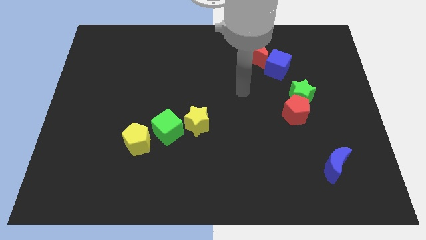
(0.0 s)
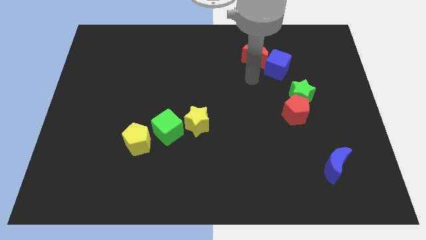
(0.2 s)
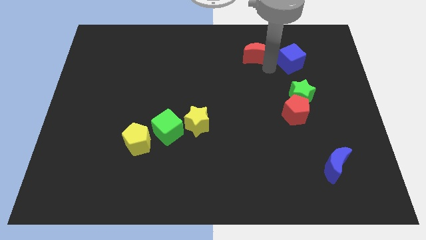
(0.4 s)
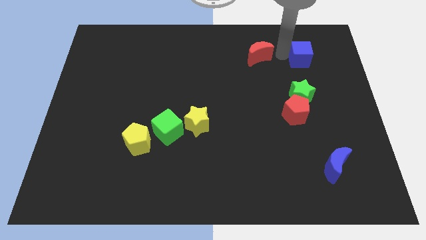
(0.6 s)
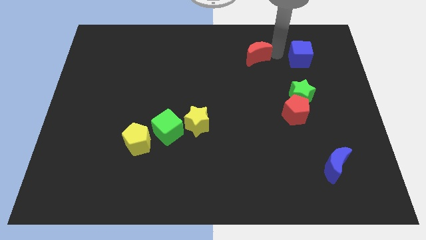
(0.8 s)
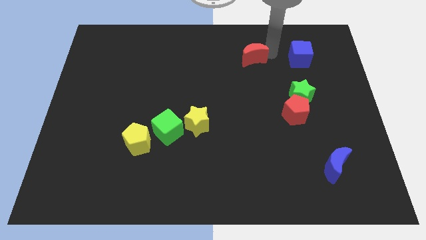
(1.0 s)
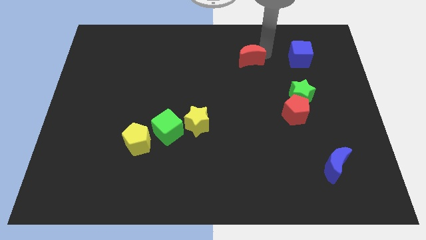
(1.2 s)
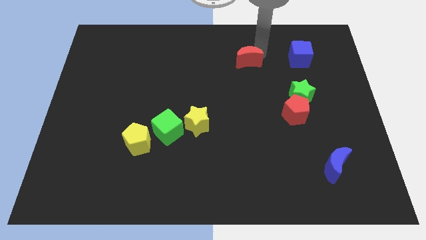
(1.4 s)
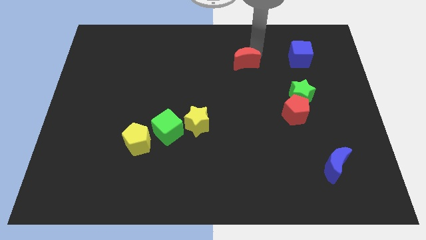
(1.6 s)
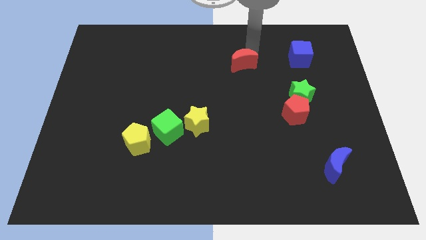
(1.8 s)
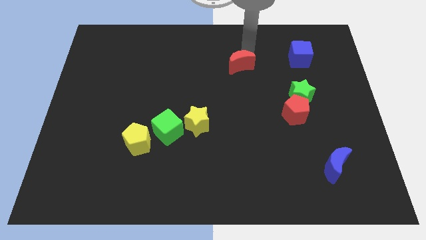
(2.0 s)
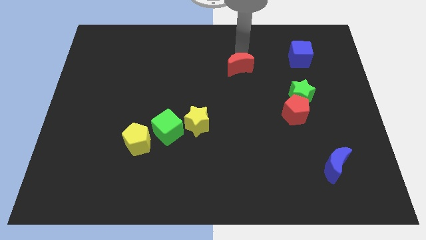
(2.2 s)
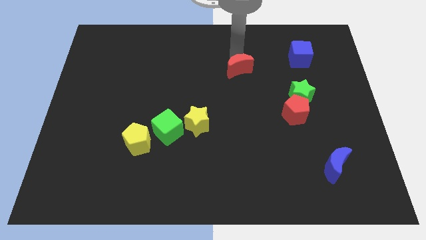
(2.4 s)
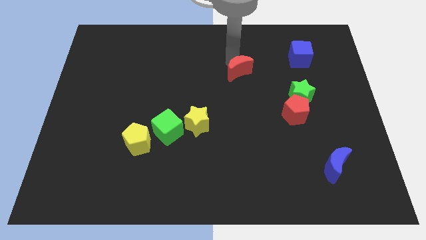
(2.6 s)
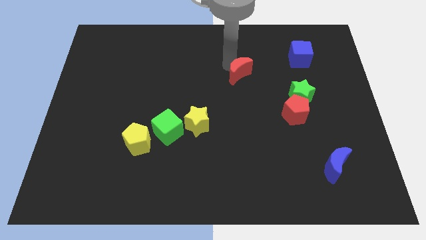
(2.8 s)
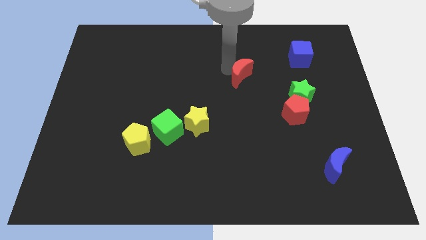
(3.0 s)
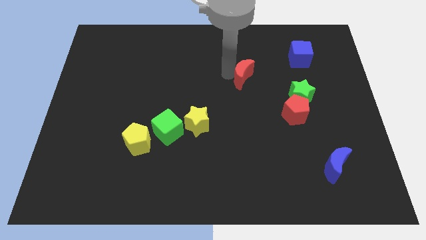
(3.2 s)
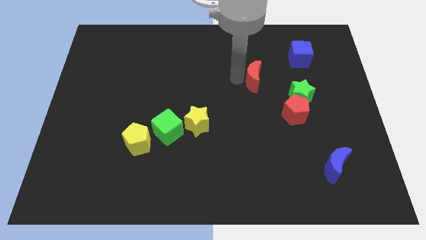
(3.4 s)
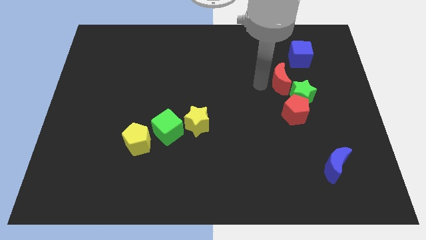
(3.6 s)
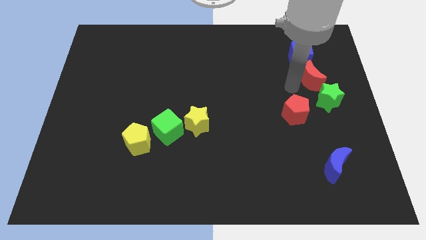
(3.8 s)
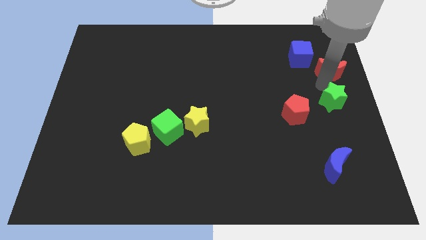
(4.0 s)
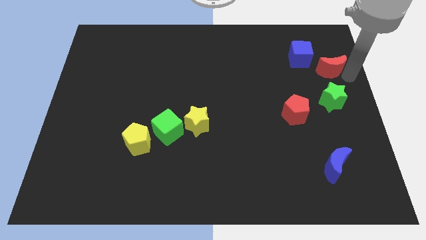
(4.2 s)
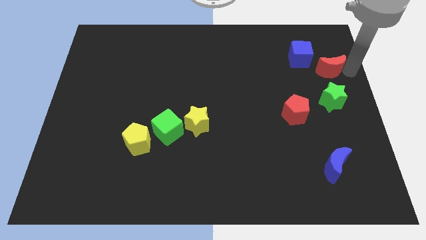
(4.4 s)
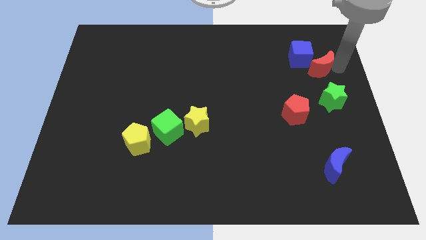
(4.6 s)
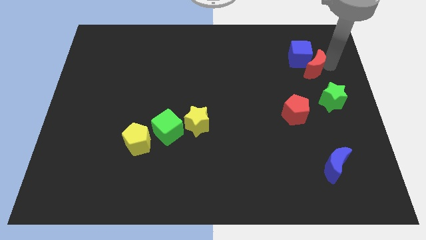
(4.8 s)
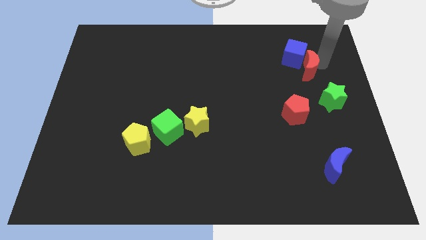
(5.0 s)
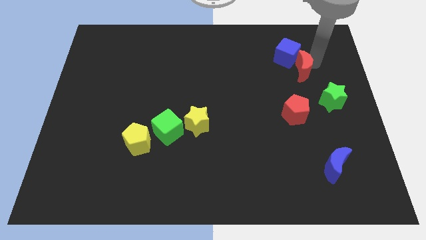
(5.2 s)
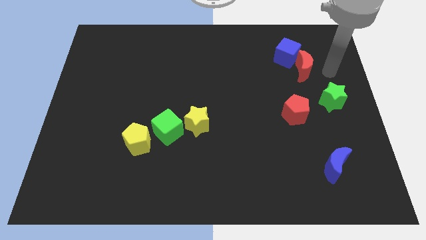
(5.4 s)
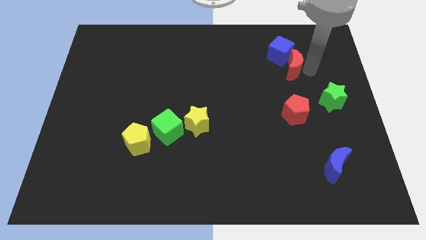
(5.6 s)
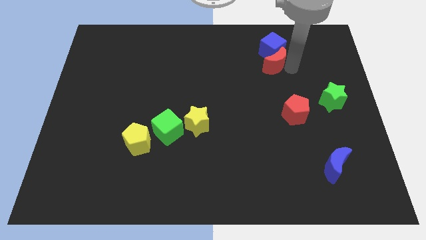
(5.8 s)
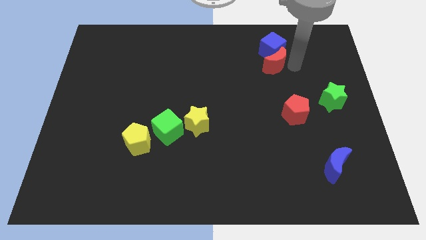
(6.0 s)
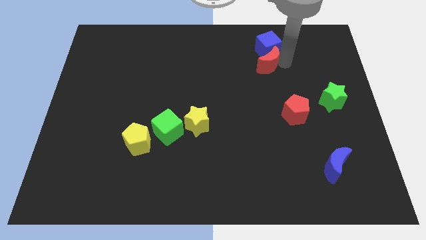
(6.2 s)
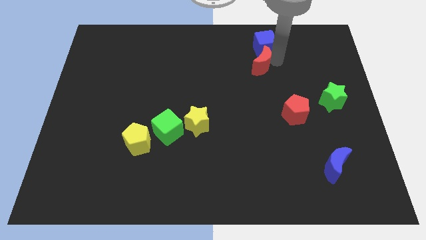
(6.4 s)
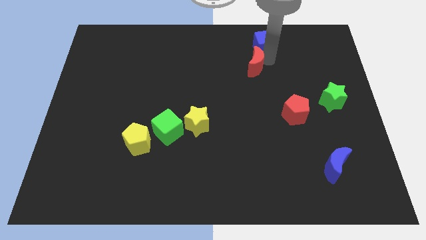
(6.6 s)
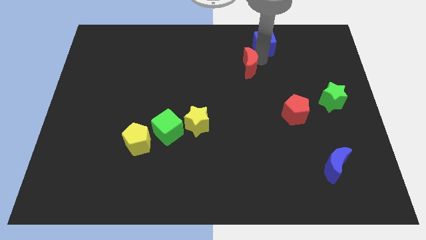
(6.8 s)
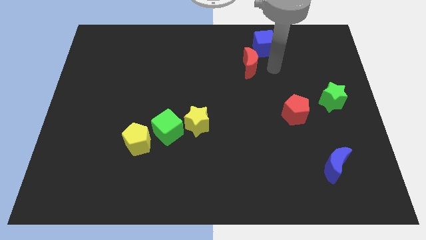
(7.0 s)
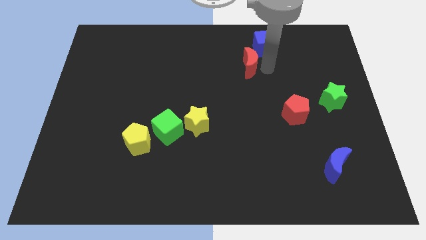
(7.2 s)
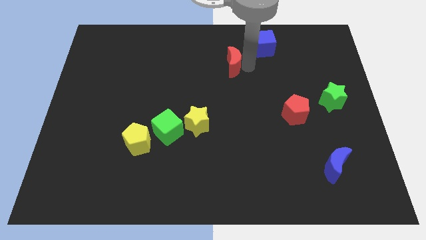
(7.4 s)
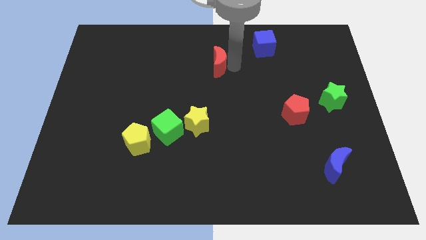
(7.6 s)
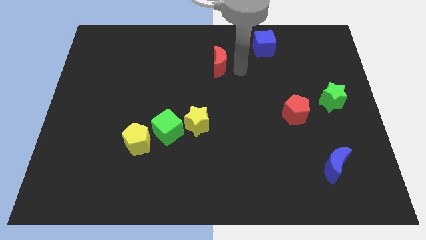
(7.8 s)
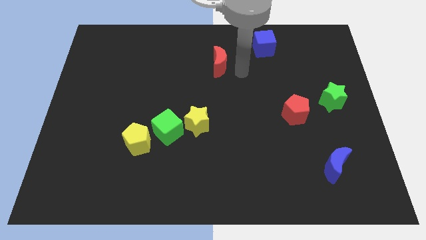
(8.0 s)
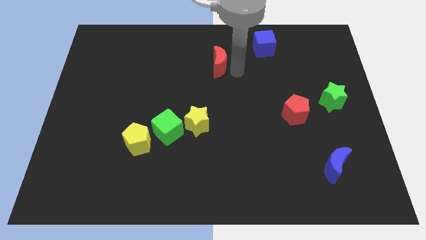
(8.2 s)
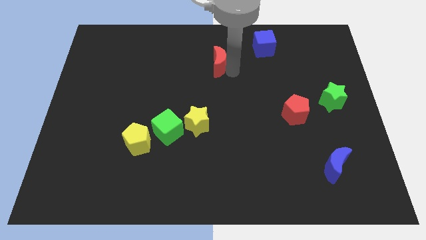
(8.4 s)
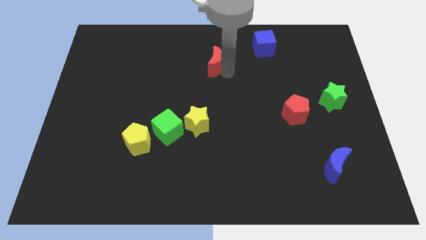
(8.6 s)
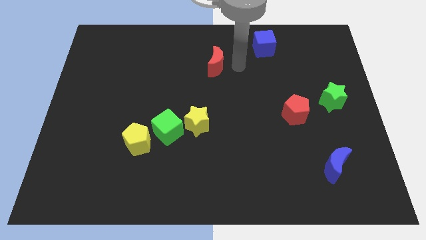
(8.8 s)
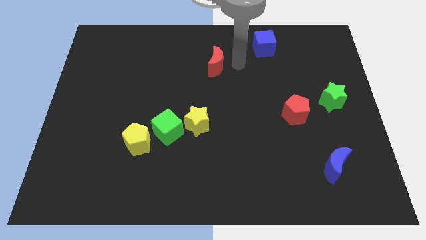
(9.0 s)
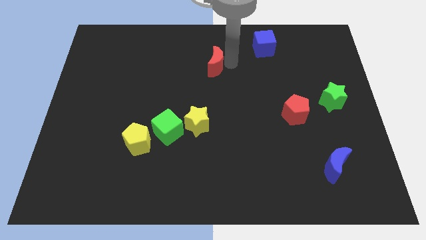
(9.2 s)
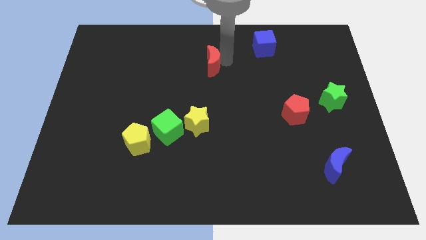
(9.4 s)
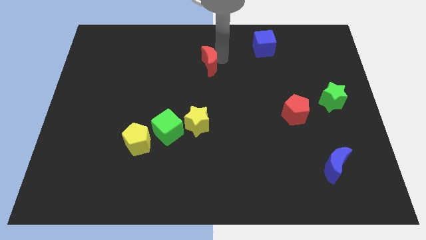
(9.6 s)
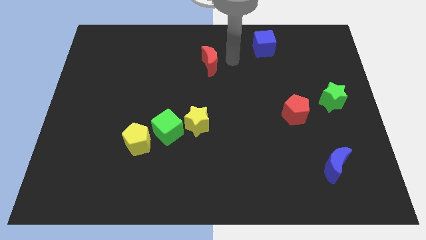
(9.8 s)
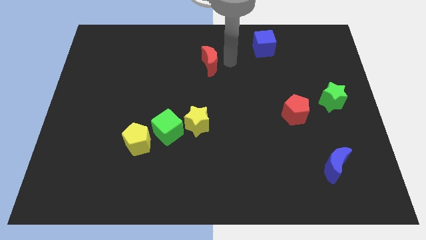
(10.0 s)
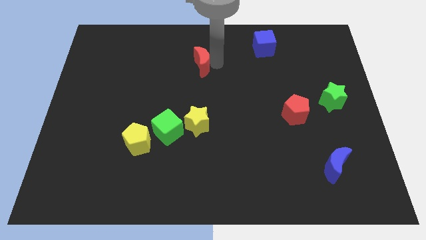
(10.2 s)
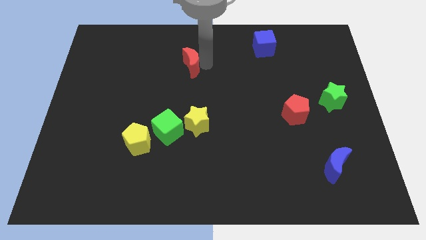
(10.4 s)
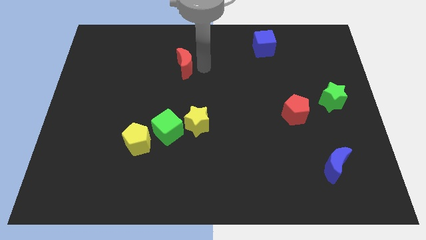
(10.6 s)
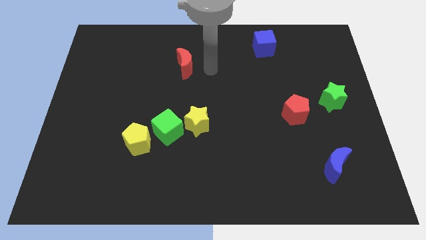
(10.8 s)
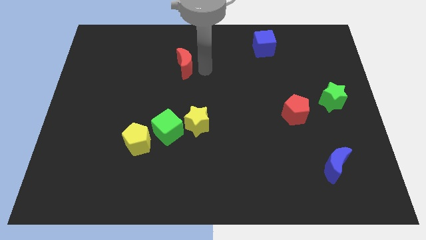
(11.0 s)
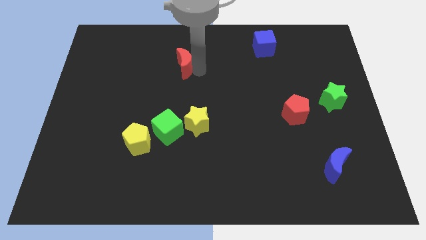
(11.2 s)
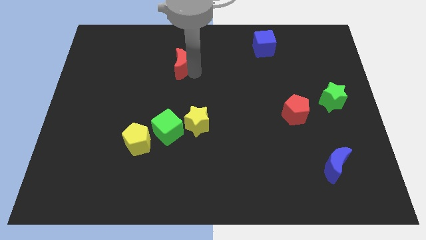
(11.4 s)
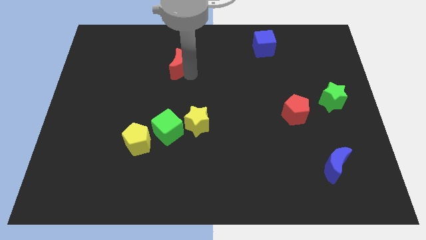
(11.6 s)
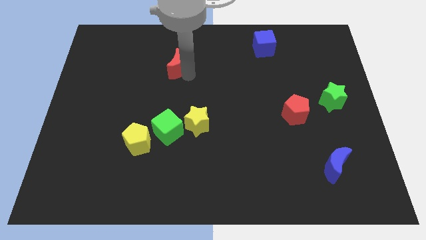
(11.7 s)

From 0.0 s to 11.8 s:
slide the red moon left

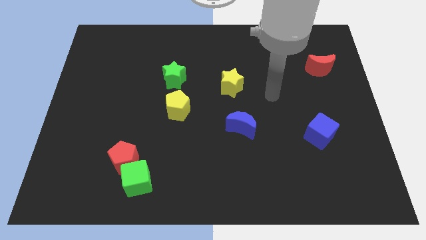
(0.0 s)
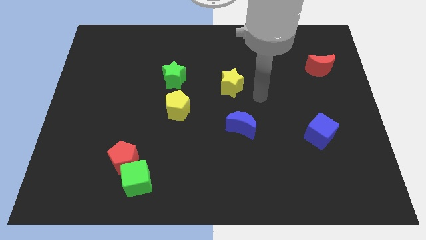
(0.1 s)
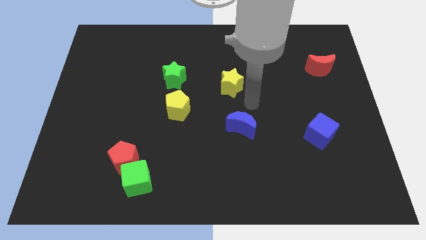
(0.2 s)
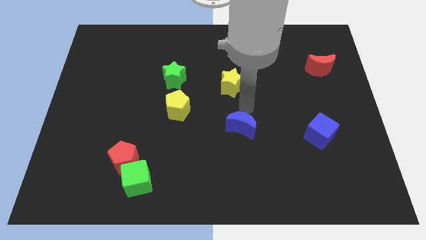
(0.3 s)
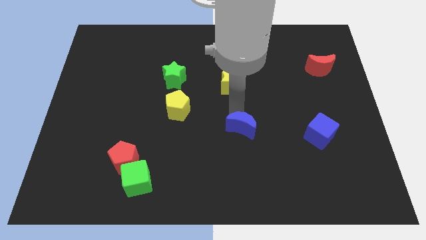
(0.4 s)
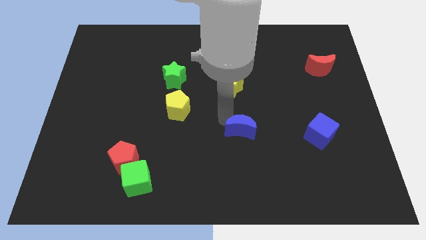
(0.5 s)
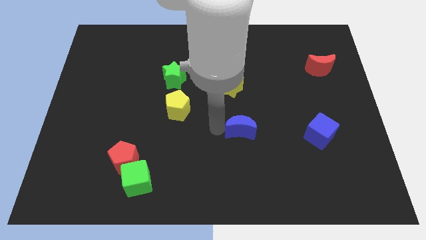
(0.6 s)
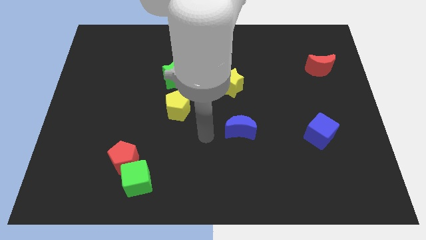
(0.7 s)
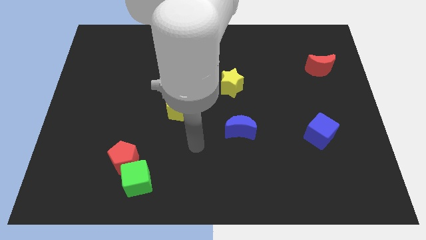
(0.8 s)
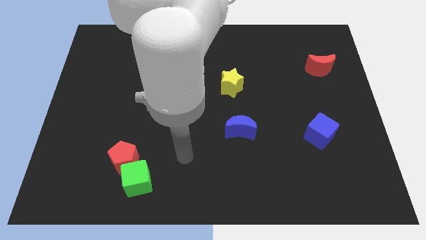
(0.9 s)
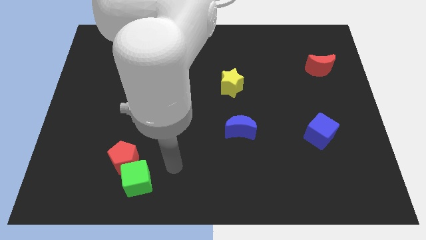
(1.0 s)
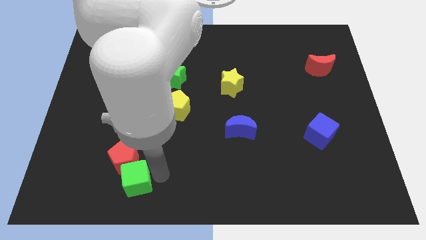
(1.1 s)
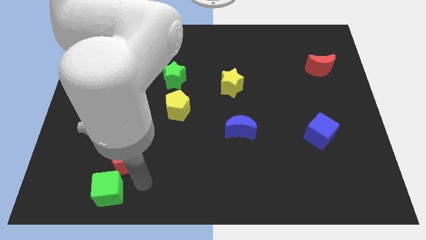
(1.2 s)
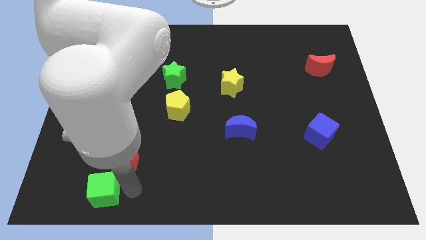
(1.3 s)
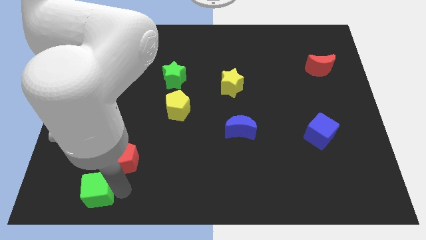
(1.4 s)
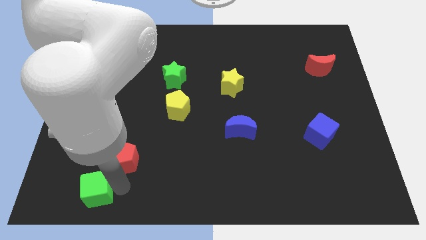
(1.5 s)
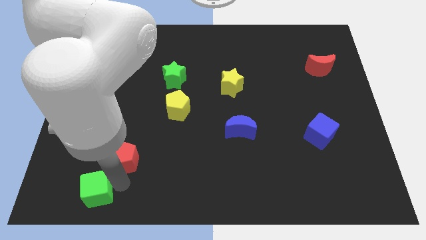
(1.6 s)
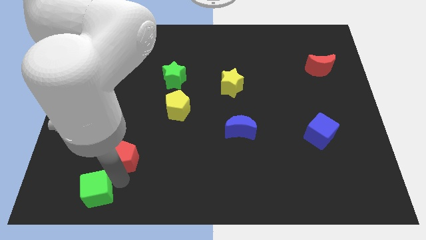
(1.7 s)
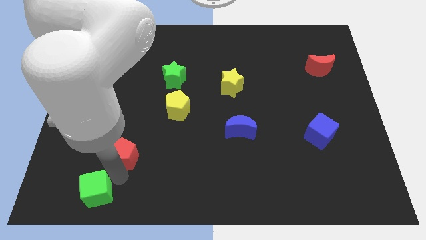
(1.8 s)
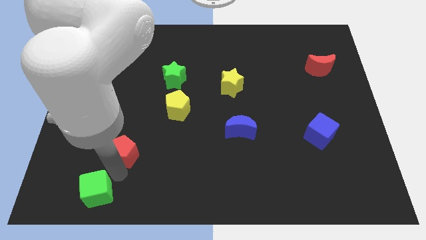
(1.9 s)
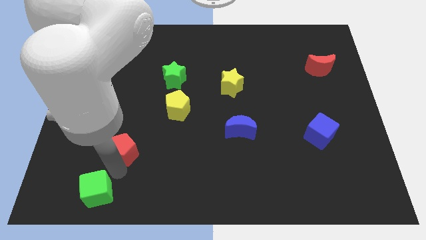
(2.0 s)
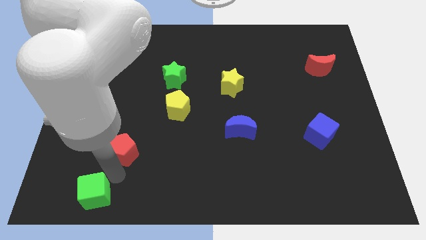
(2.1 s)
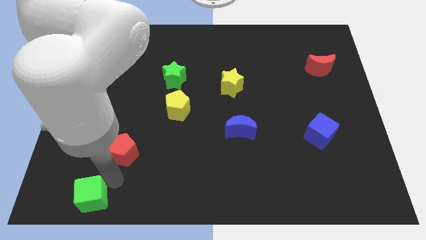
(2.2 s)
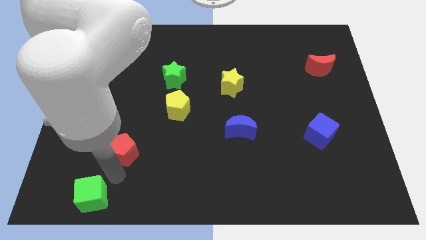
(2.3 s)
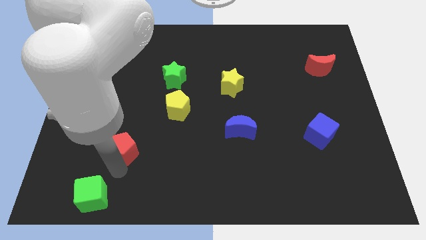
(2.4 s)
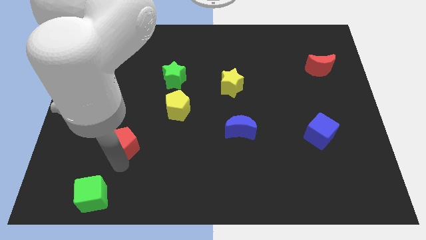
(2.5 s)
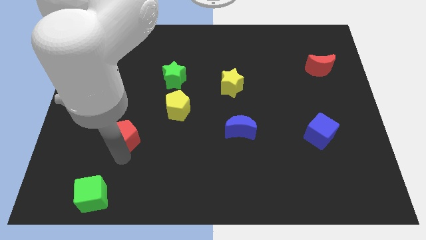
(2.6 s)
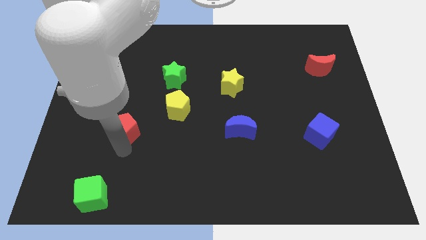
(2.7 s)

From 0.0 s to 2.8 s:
slide the red pentagon up a little bit
